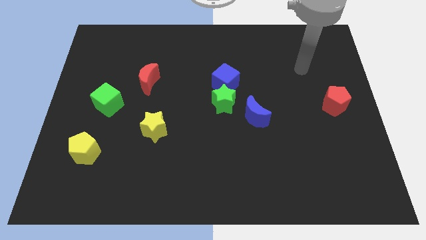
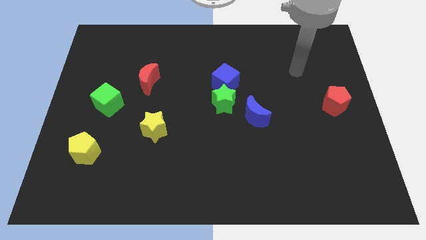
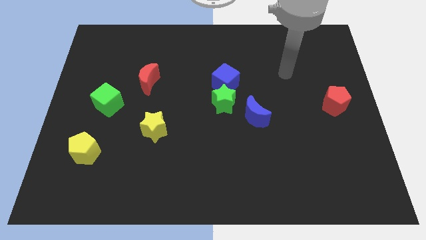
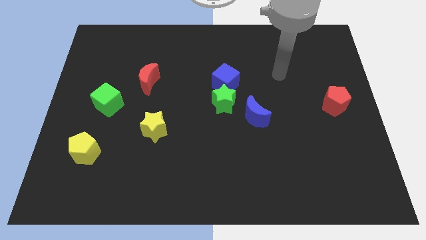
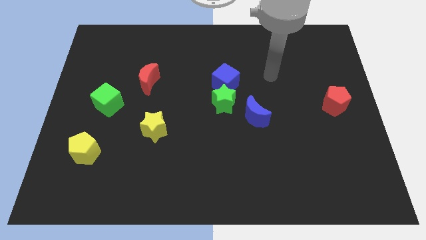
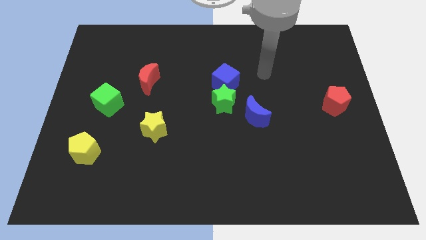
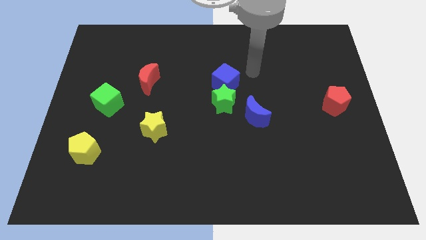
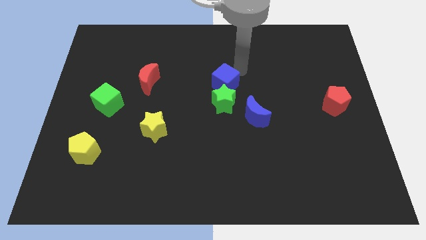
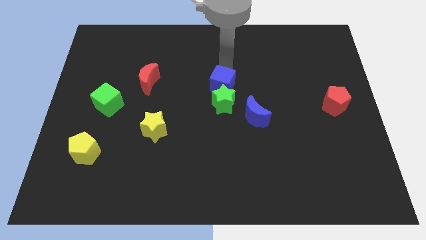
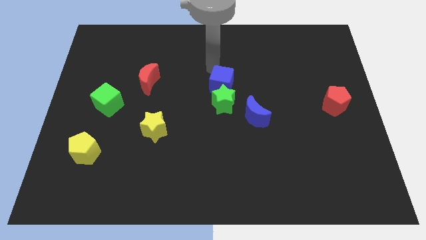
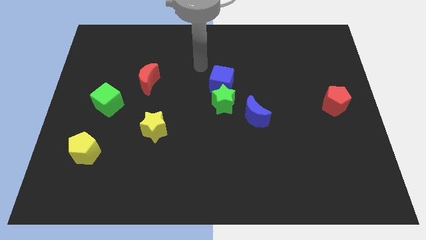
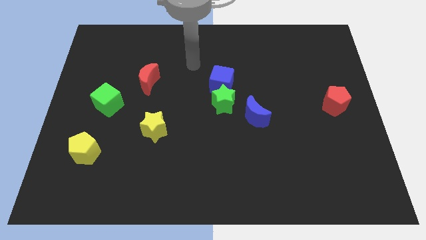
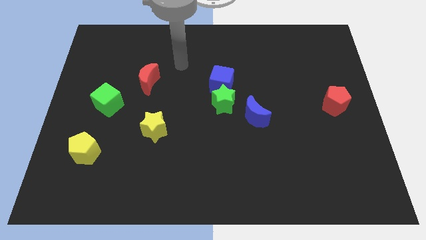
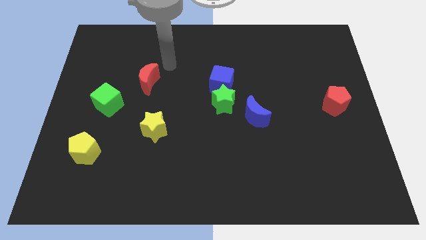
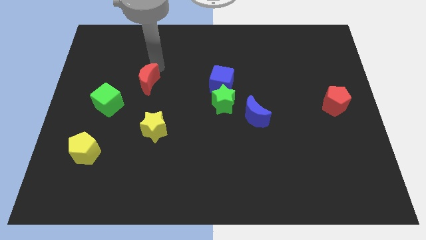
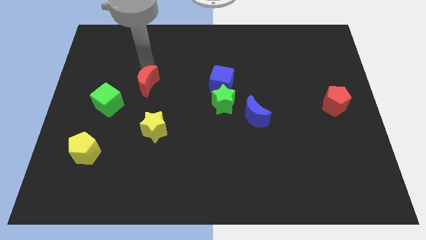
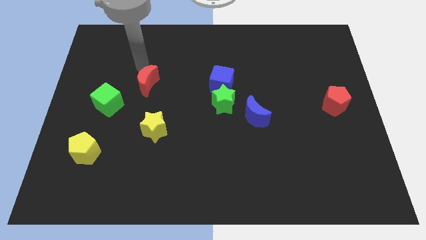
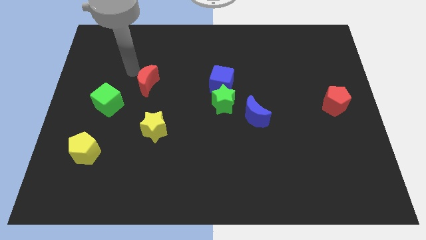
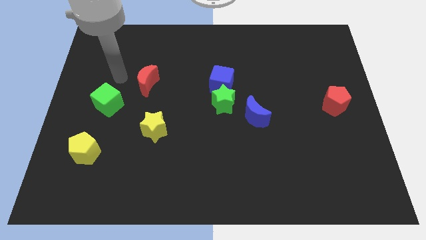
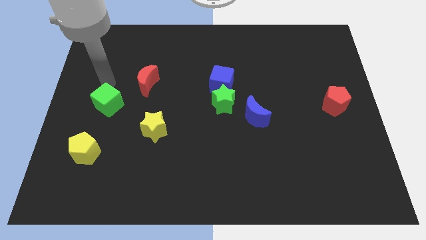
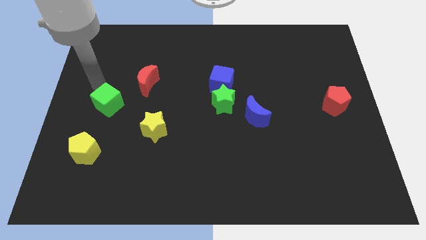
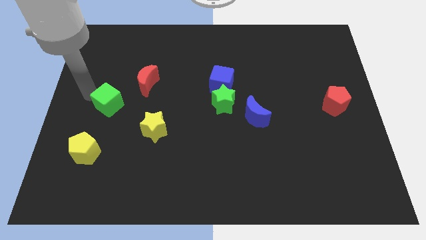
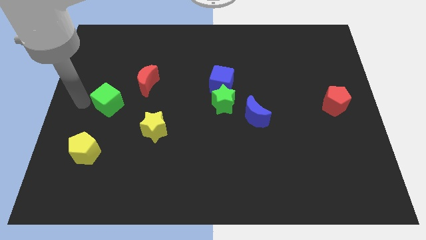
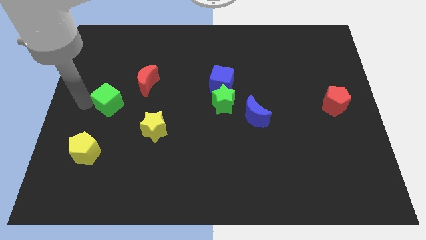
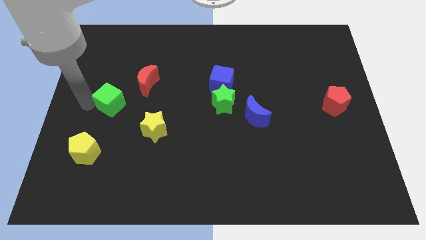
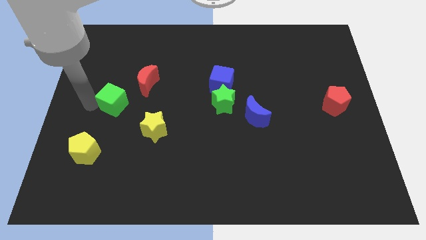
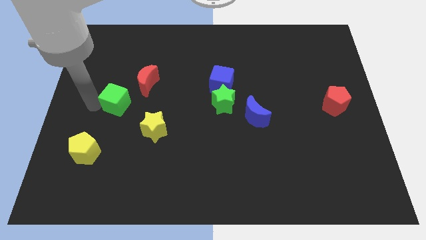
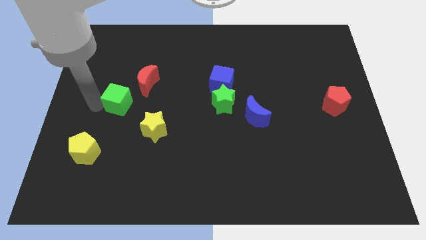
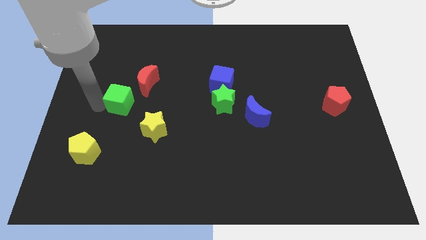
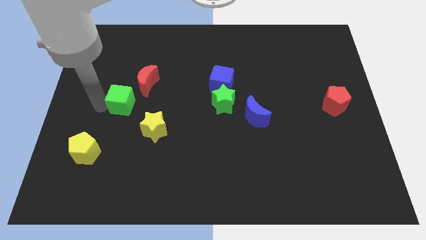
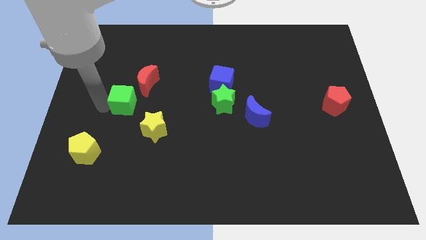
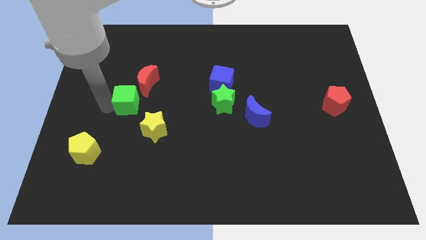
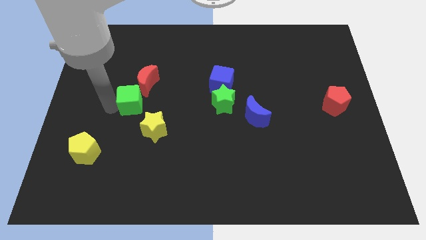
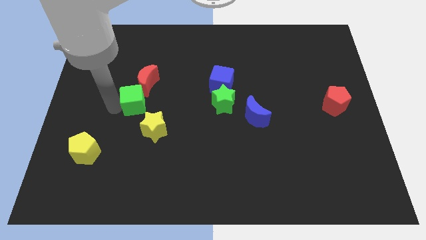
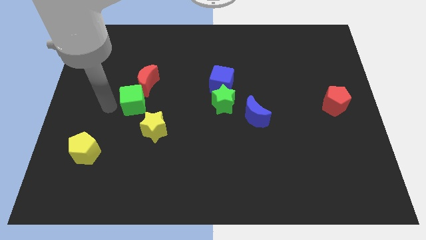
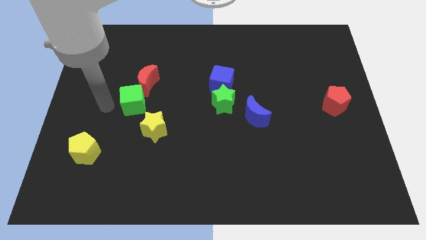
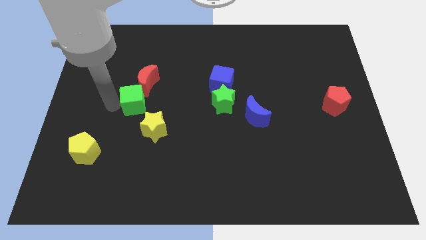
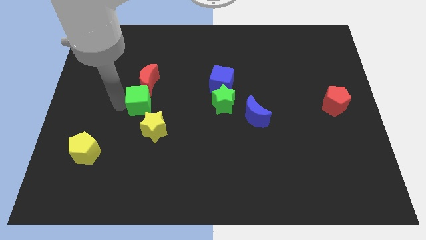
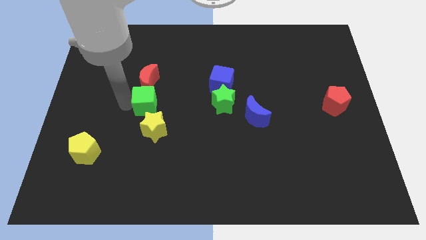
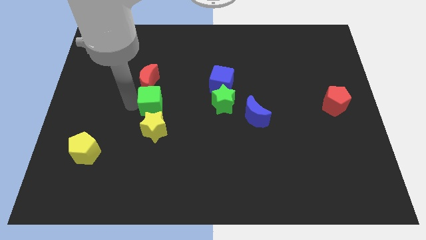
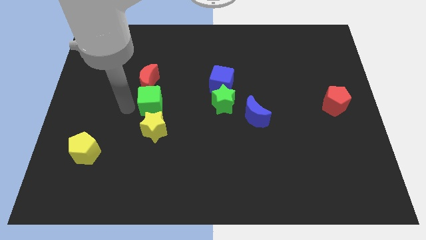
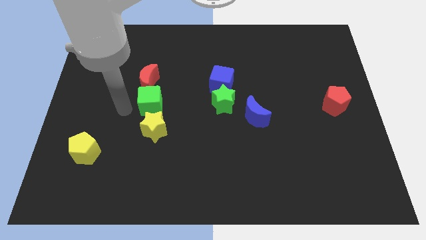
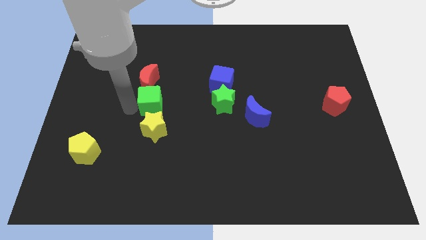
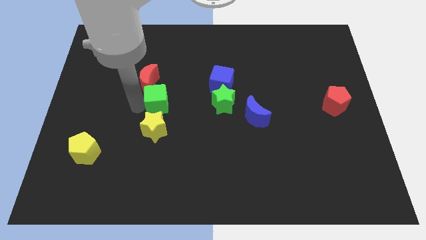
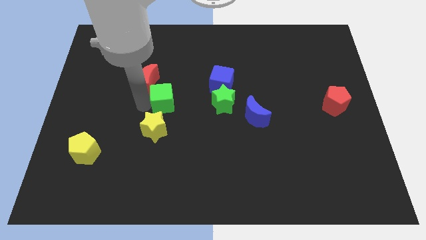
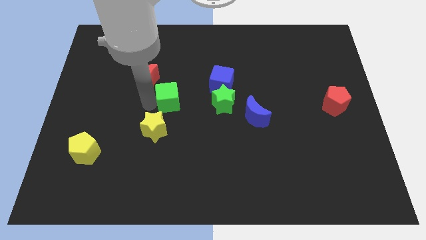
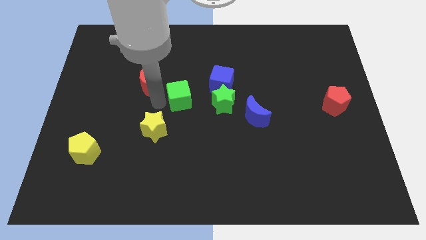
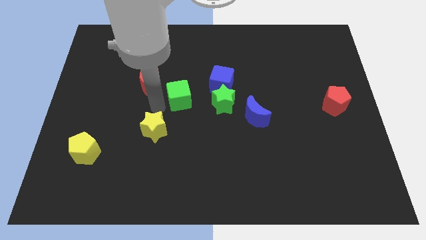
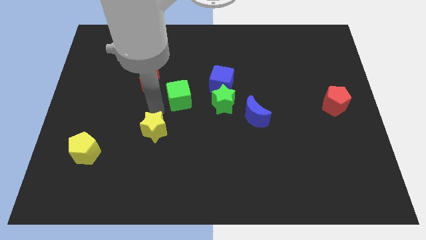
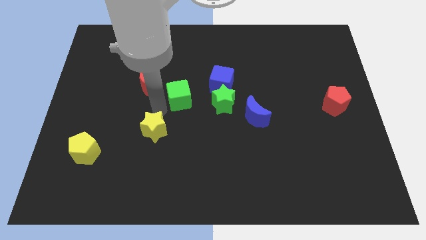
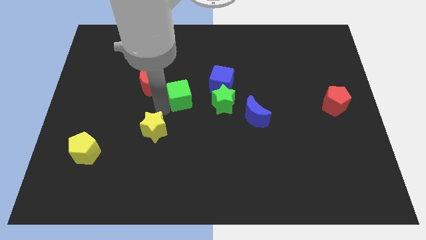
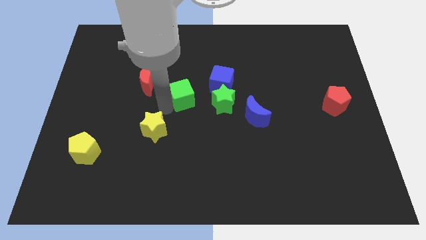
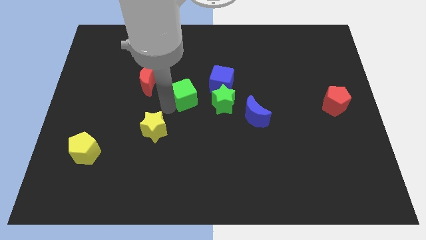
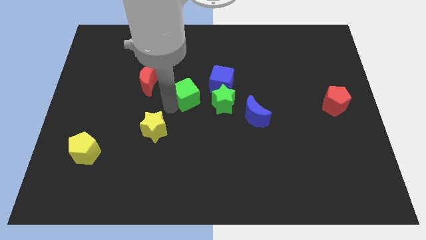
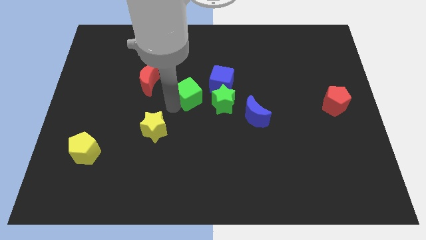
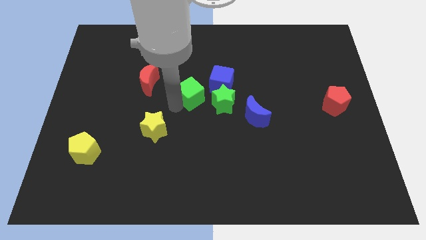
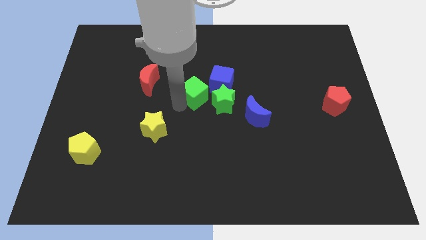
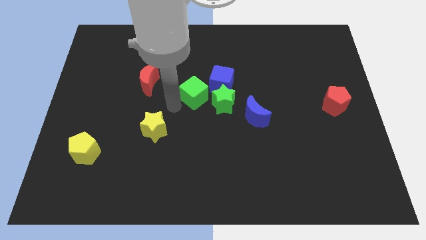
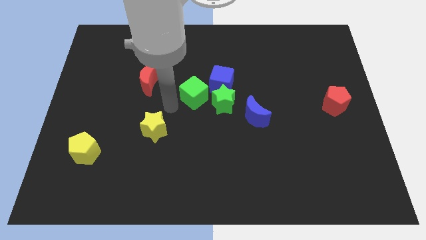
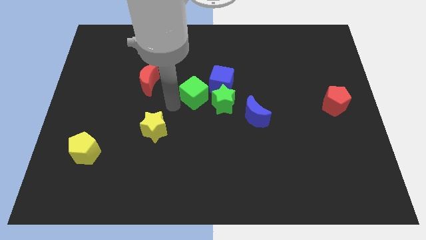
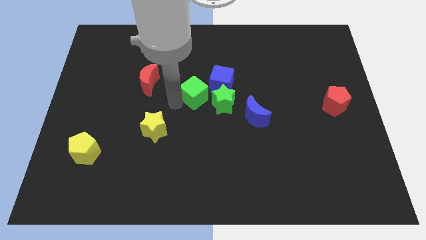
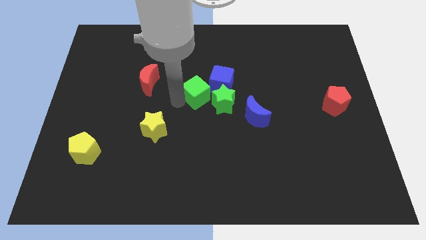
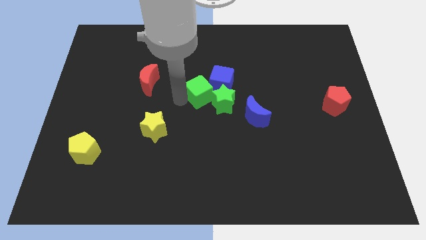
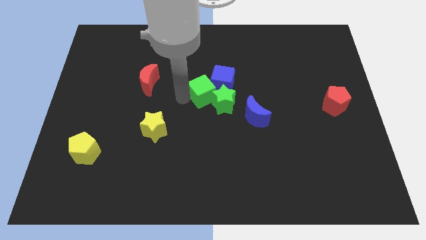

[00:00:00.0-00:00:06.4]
push the green cube close to the blue cube

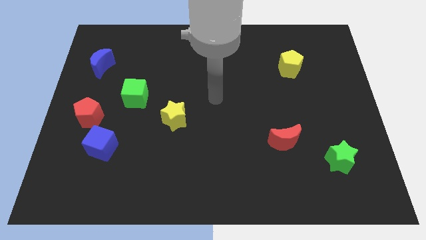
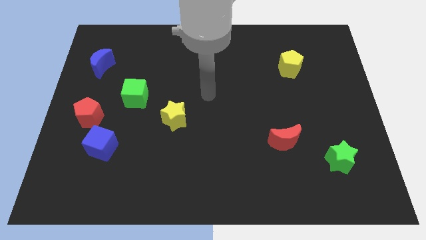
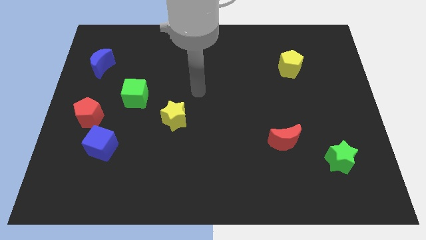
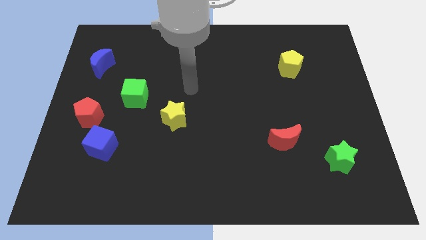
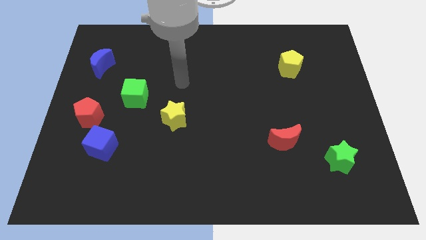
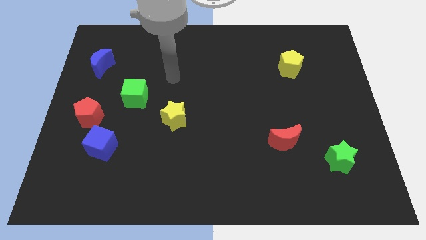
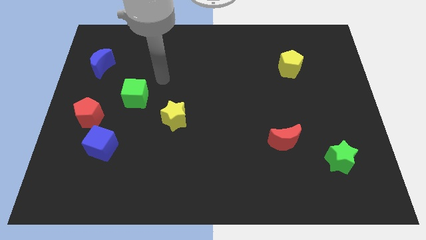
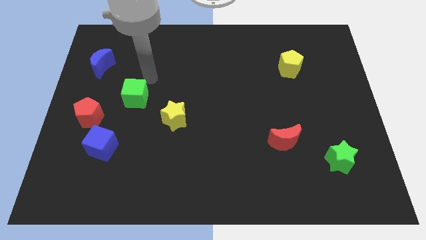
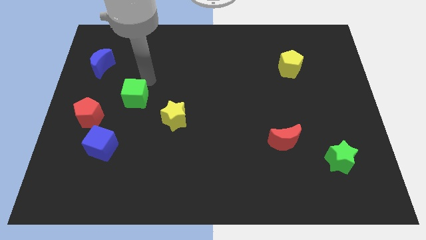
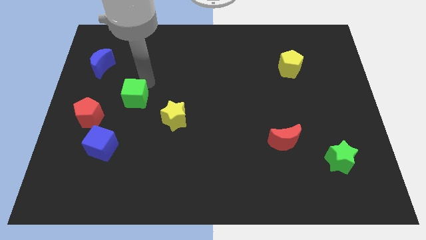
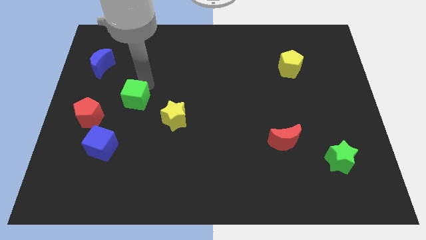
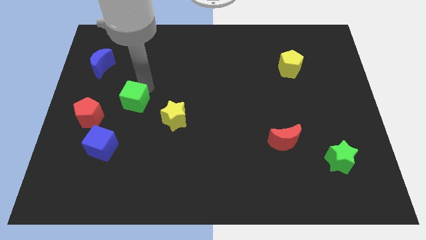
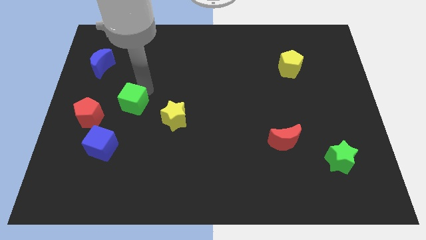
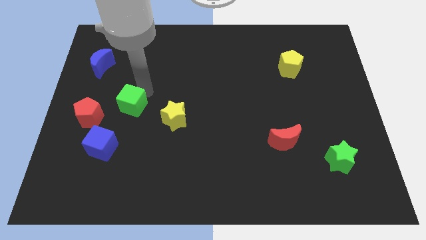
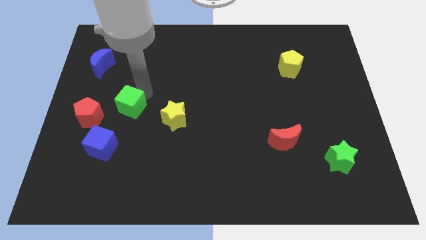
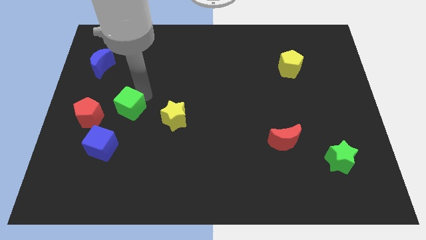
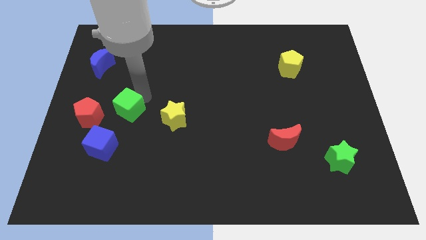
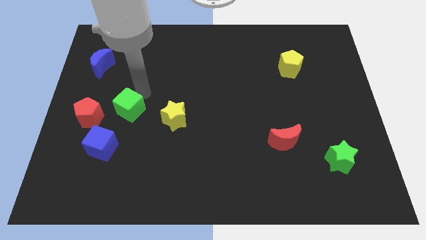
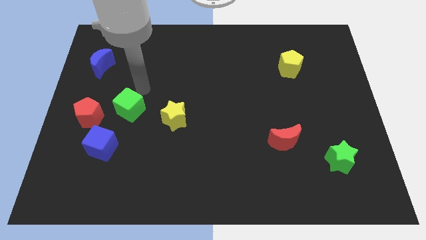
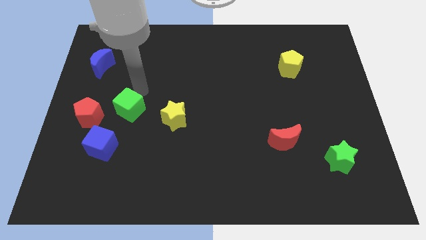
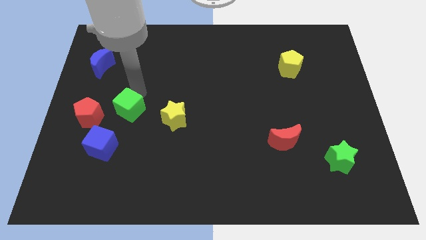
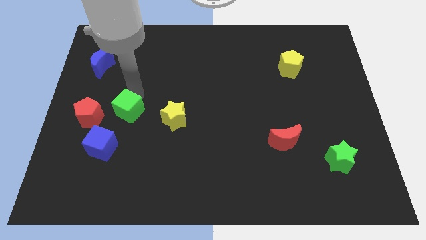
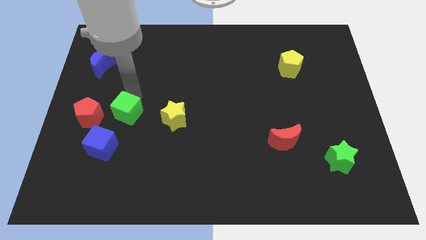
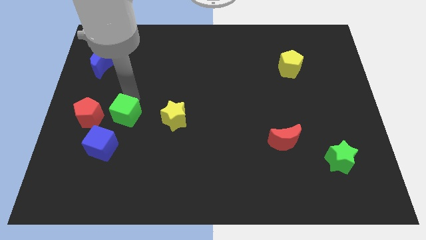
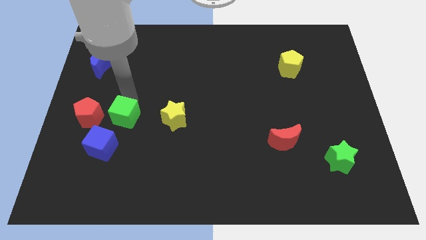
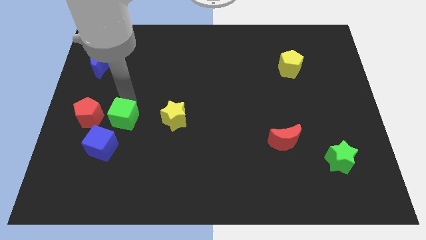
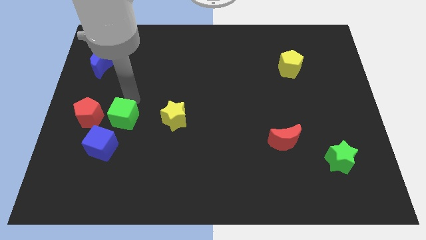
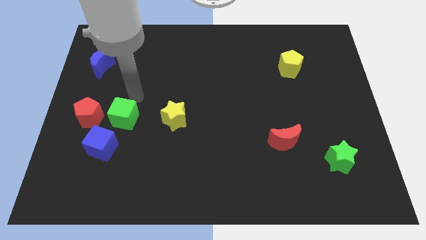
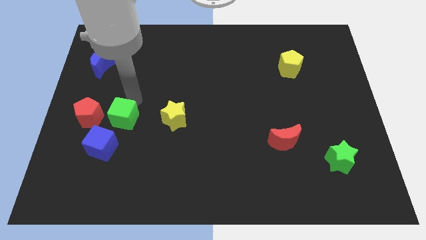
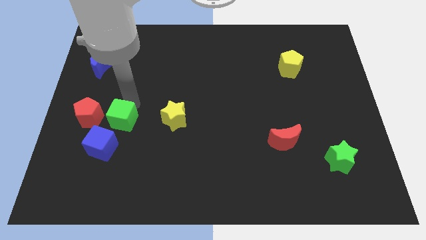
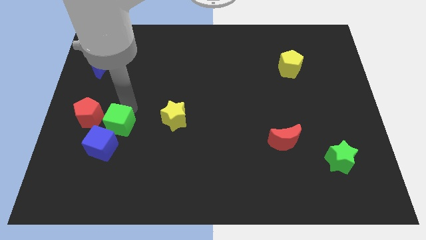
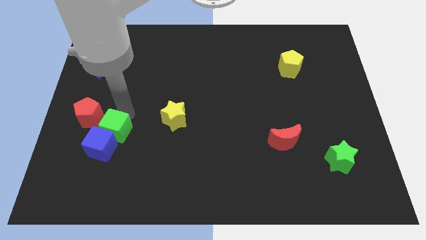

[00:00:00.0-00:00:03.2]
push the green cube towards the blue cube
